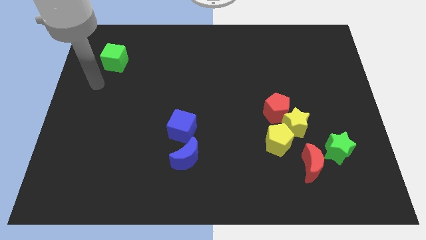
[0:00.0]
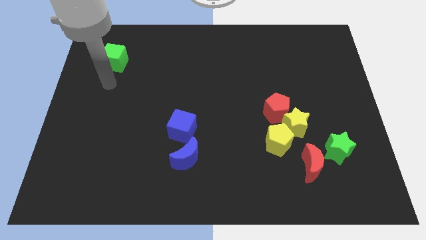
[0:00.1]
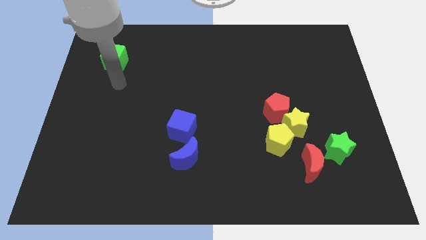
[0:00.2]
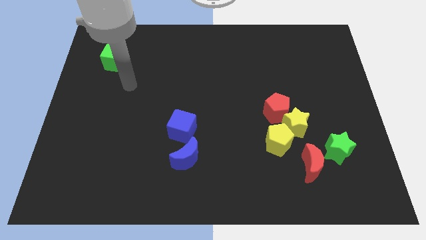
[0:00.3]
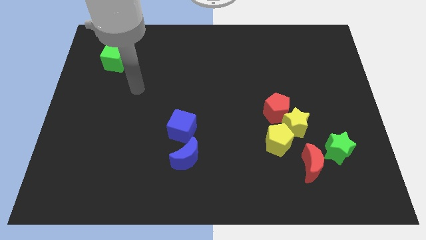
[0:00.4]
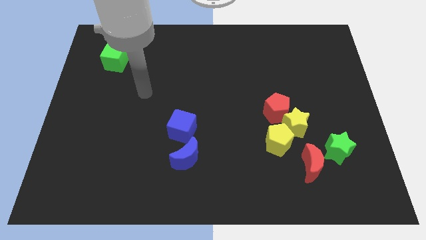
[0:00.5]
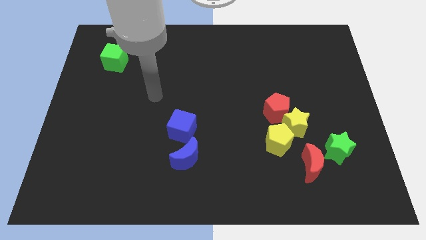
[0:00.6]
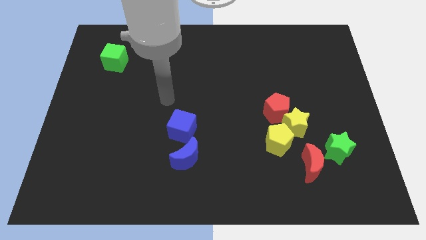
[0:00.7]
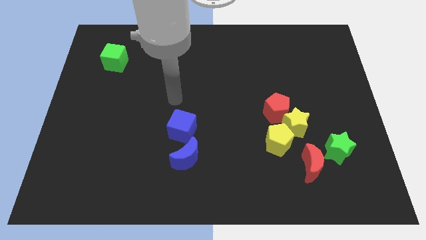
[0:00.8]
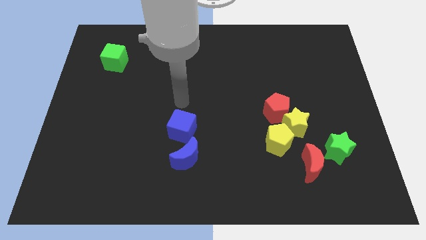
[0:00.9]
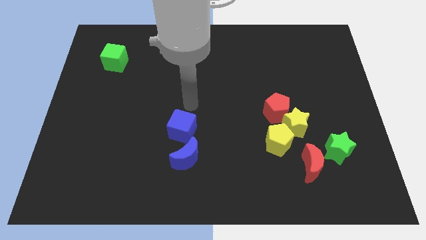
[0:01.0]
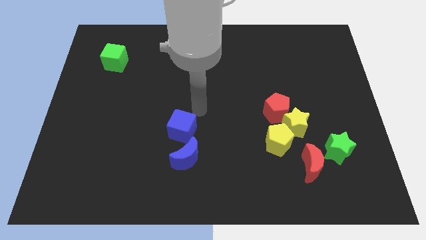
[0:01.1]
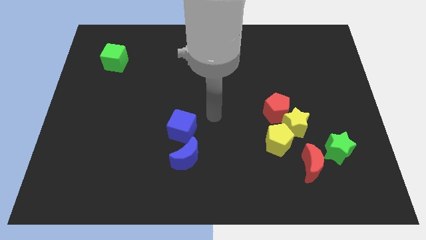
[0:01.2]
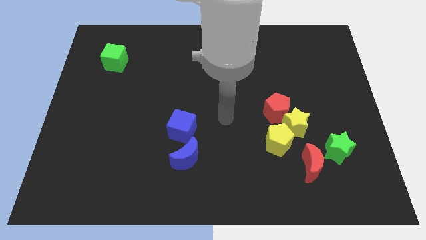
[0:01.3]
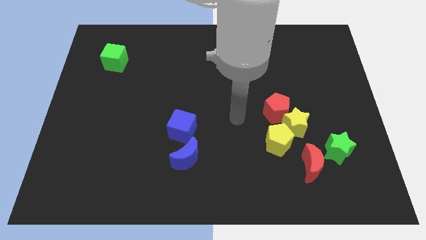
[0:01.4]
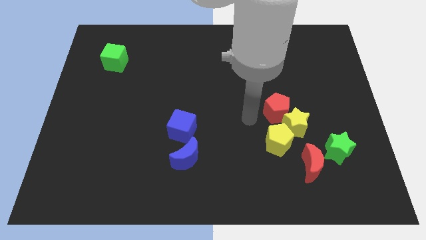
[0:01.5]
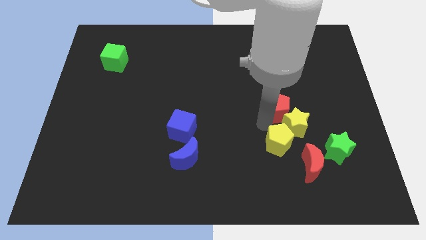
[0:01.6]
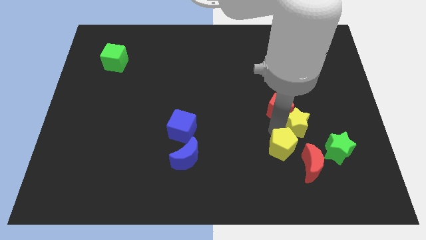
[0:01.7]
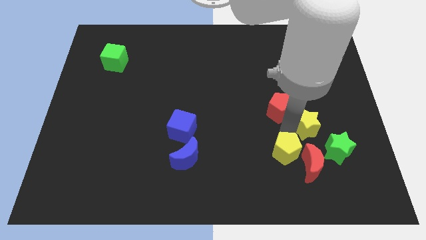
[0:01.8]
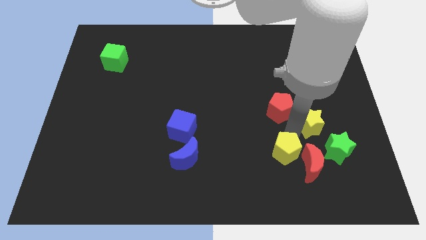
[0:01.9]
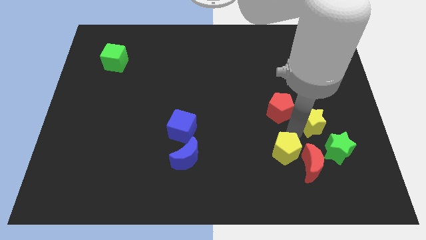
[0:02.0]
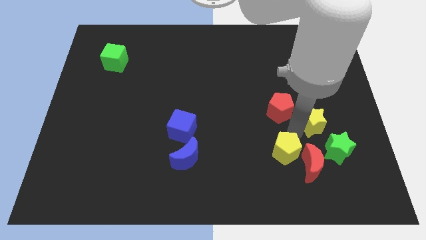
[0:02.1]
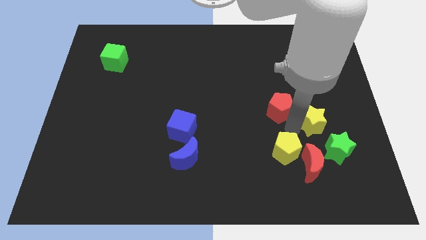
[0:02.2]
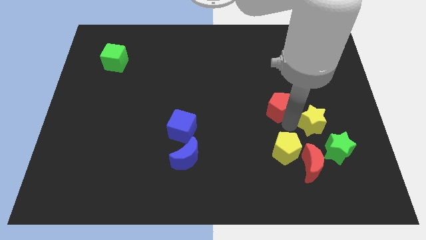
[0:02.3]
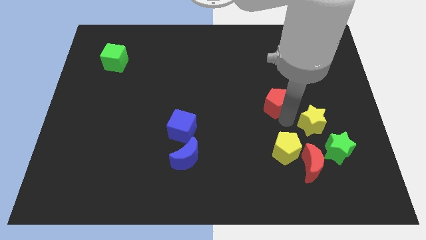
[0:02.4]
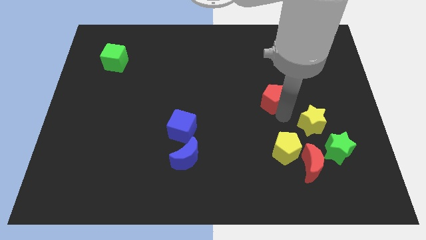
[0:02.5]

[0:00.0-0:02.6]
move the red pentagon away from the yellow star and yellow pentagon

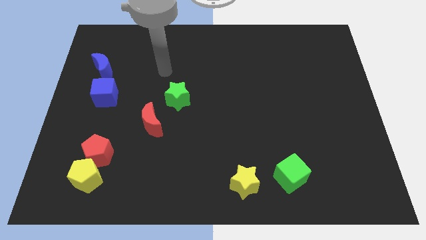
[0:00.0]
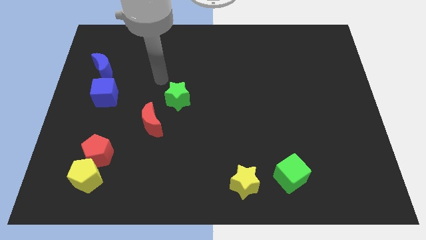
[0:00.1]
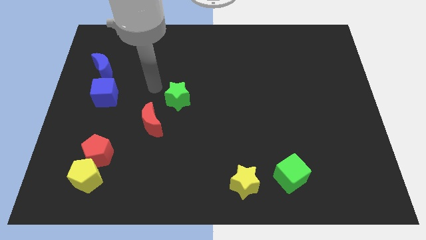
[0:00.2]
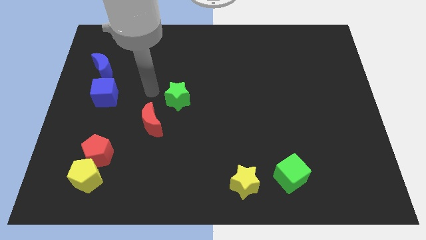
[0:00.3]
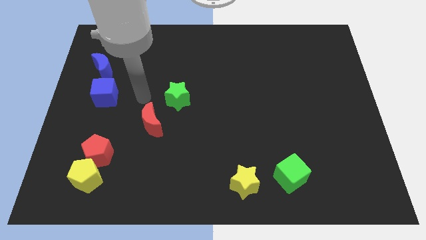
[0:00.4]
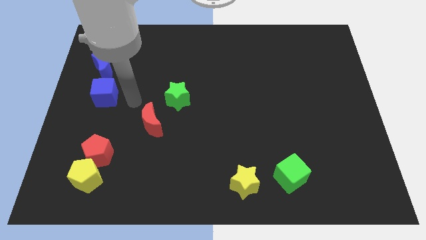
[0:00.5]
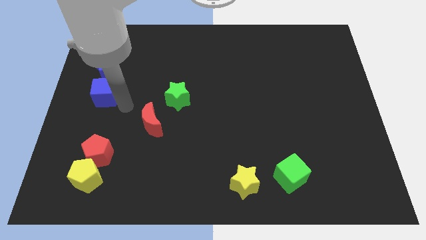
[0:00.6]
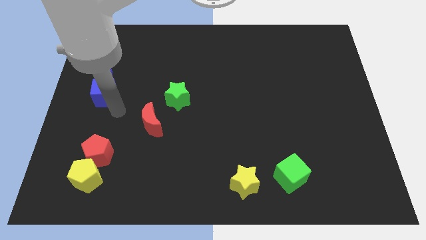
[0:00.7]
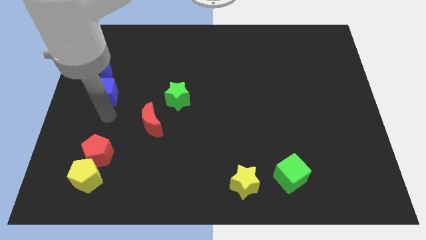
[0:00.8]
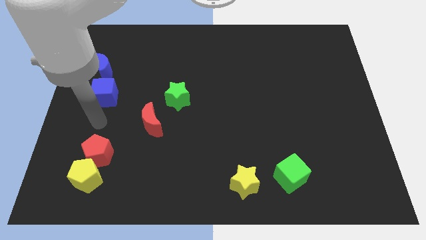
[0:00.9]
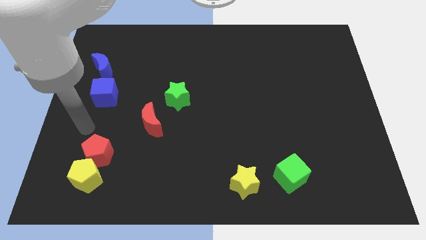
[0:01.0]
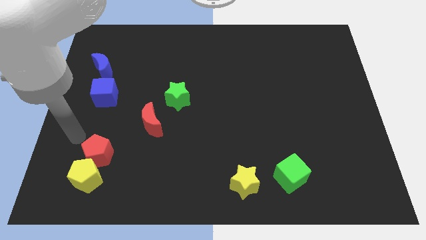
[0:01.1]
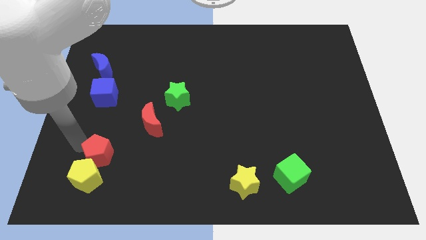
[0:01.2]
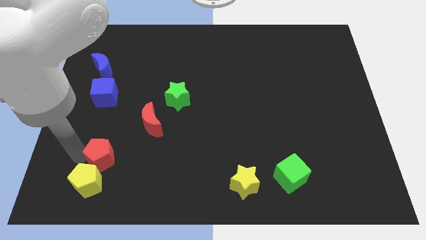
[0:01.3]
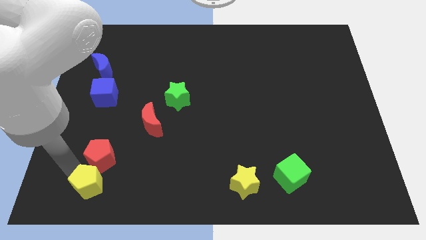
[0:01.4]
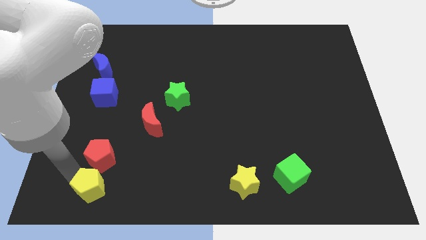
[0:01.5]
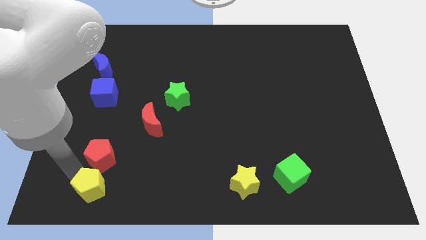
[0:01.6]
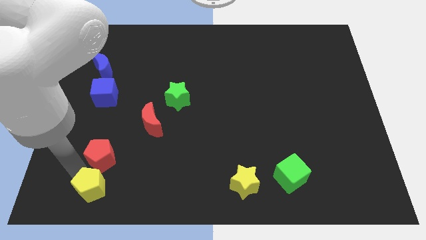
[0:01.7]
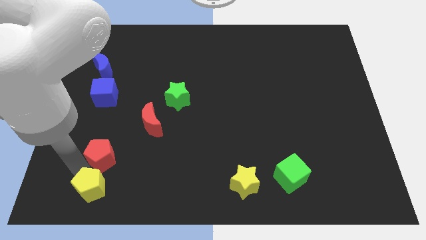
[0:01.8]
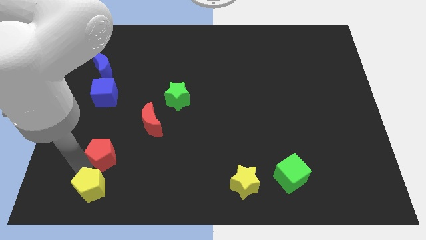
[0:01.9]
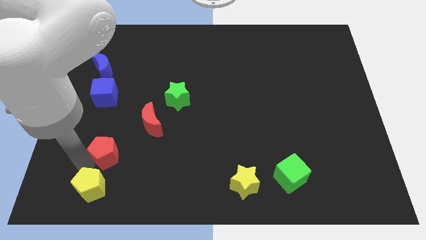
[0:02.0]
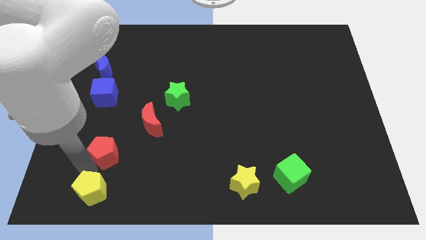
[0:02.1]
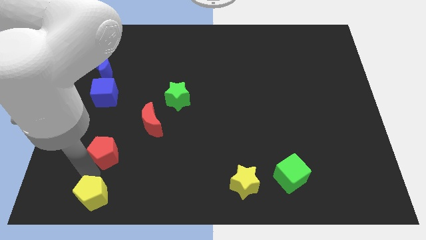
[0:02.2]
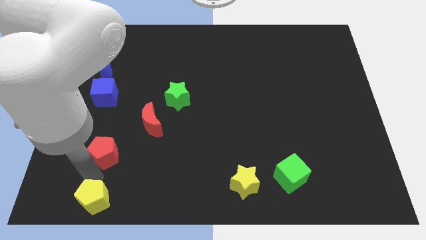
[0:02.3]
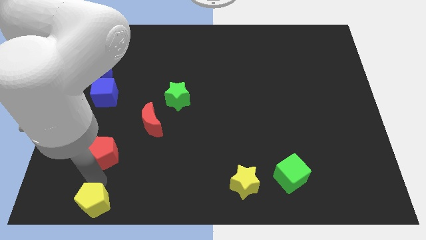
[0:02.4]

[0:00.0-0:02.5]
pull the red pentagon apart from the yellow pentagon

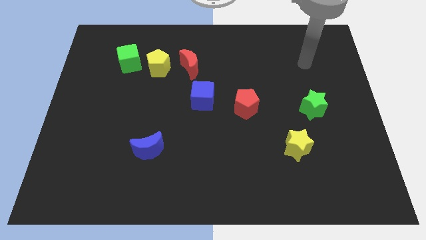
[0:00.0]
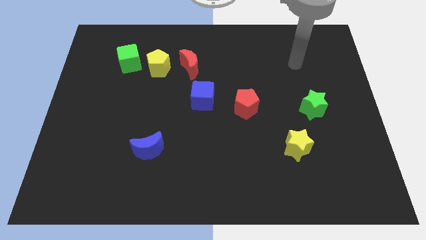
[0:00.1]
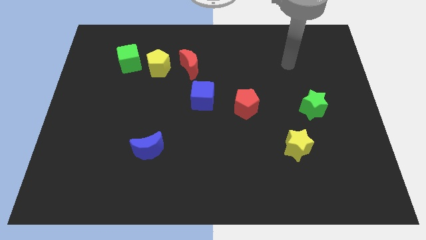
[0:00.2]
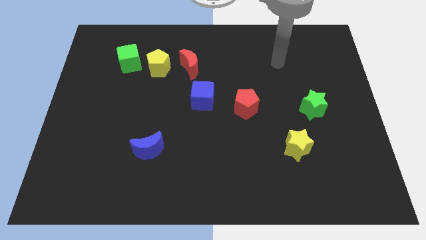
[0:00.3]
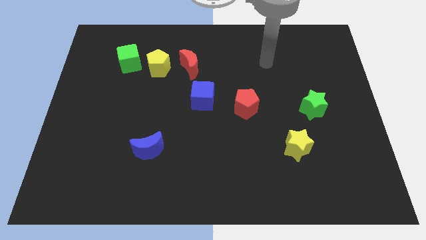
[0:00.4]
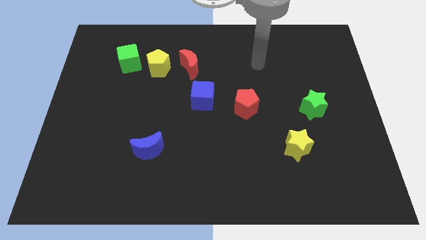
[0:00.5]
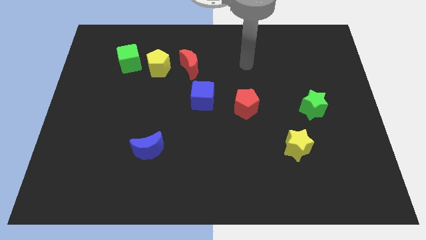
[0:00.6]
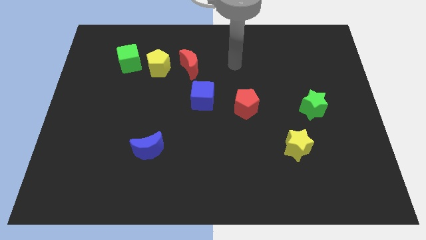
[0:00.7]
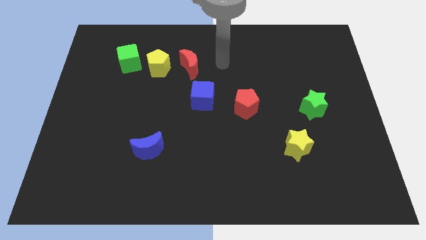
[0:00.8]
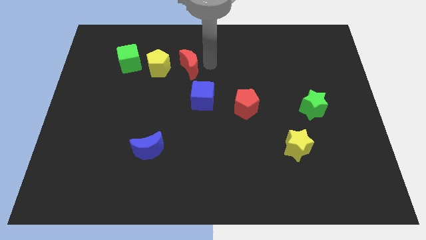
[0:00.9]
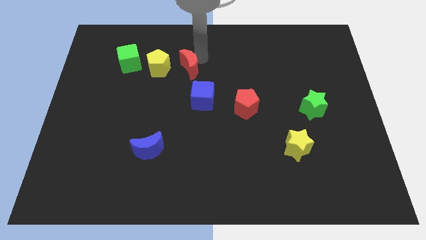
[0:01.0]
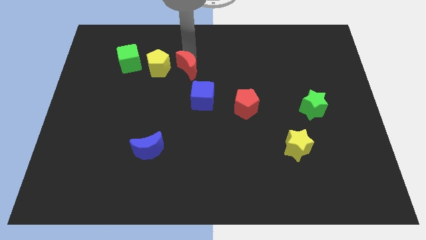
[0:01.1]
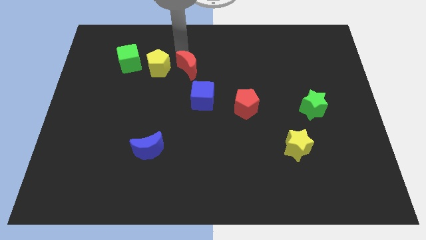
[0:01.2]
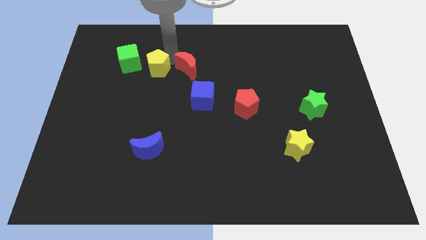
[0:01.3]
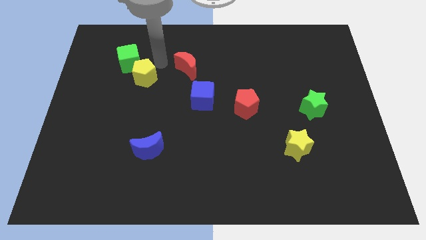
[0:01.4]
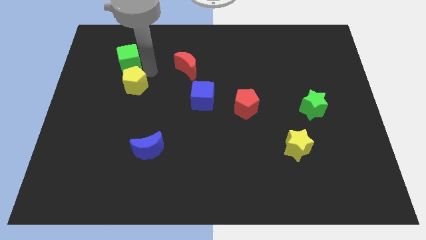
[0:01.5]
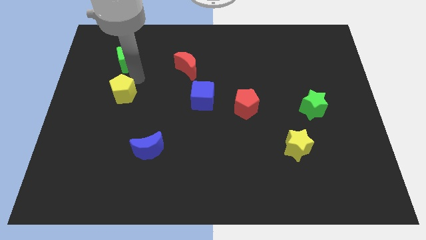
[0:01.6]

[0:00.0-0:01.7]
pull the green cube apart from the yellow pentagon

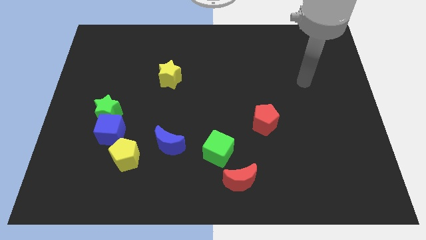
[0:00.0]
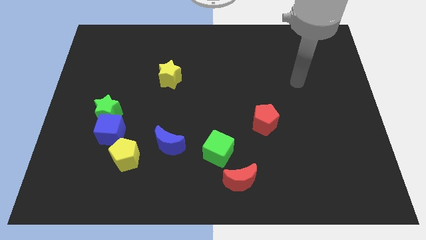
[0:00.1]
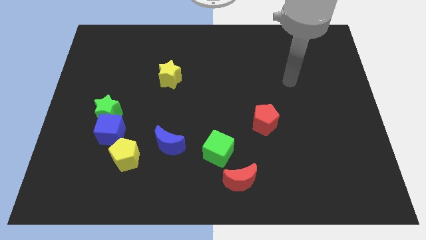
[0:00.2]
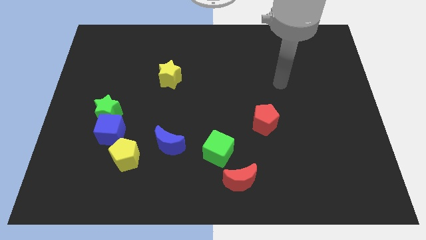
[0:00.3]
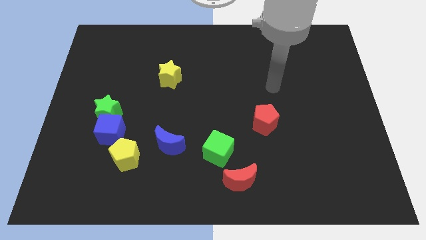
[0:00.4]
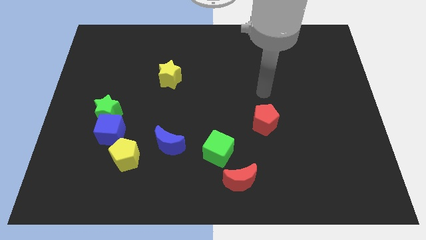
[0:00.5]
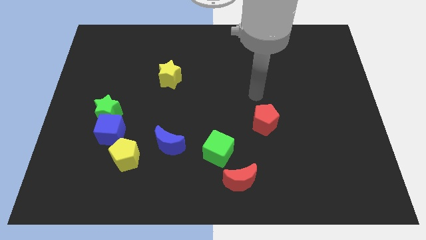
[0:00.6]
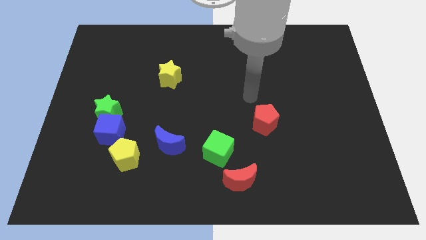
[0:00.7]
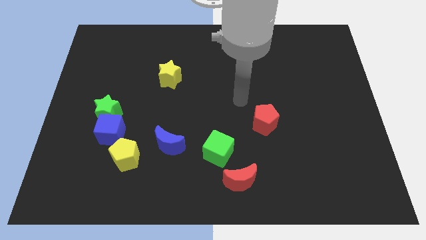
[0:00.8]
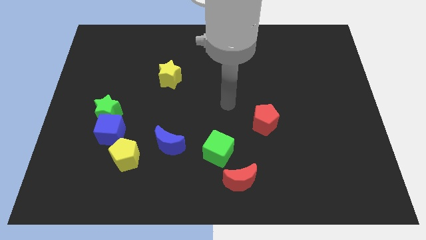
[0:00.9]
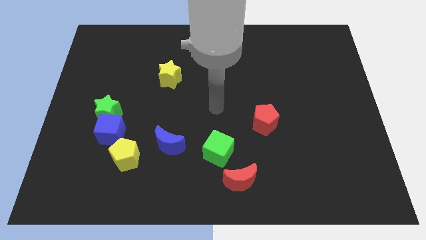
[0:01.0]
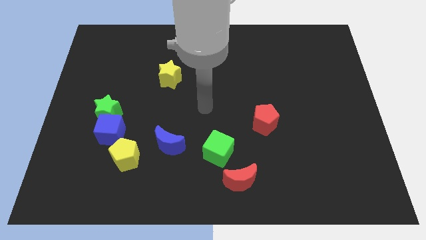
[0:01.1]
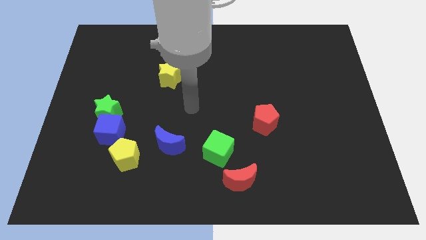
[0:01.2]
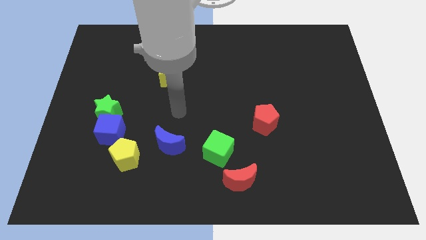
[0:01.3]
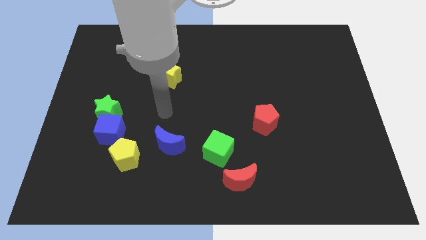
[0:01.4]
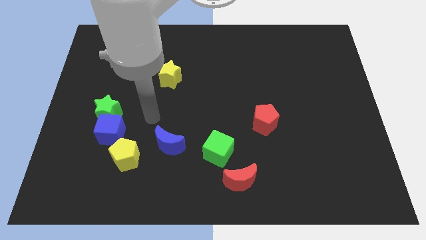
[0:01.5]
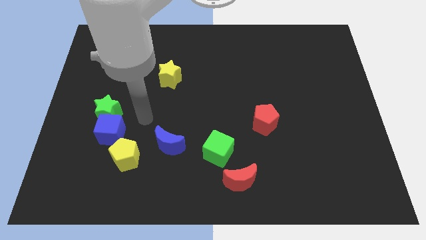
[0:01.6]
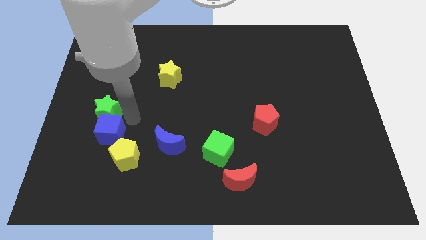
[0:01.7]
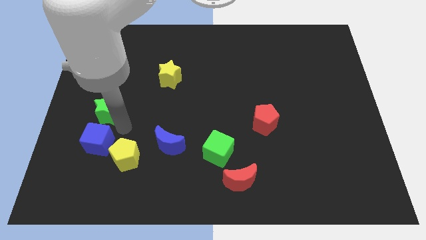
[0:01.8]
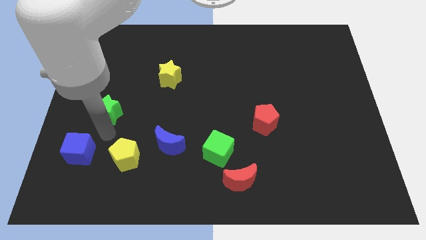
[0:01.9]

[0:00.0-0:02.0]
separate the green star from the blue cube

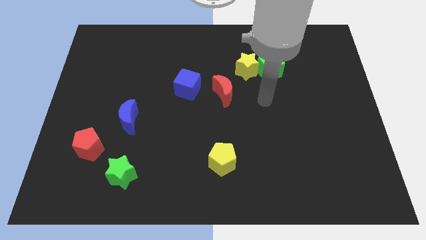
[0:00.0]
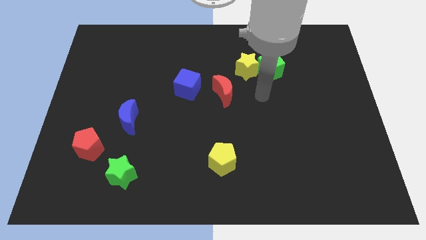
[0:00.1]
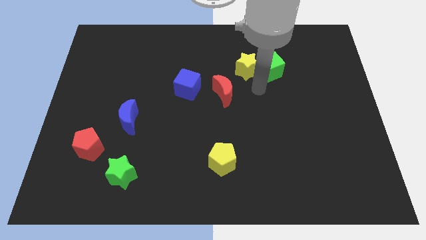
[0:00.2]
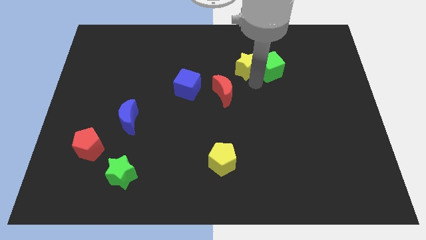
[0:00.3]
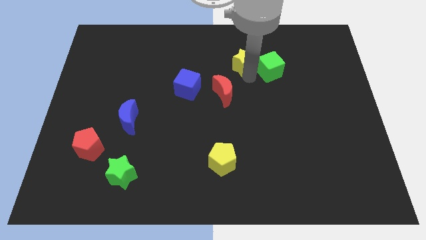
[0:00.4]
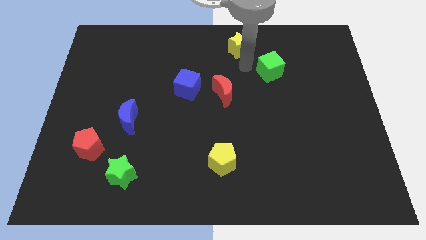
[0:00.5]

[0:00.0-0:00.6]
move the green cube away from the yellow star

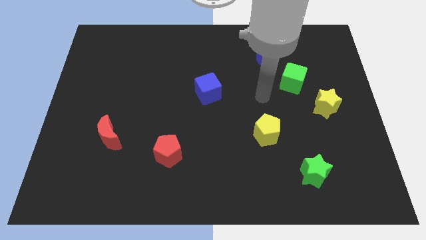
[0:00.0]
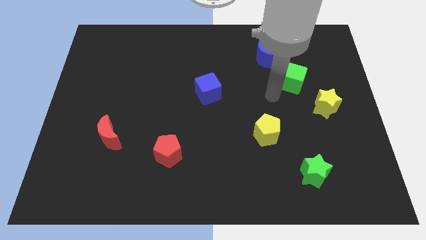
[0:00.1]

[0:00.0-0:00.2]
pull the yellow star apart from the green cube
